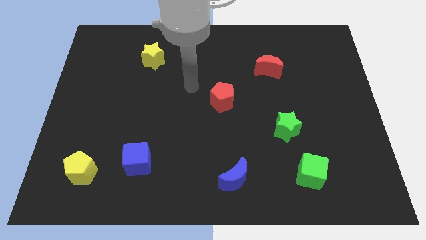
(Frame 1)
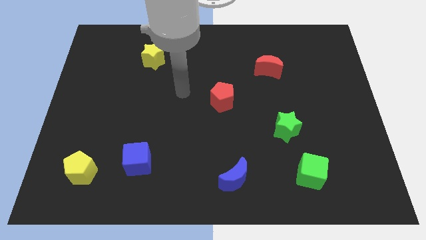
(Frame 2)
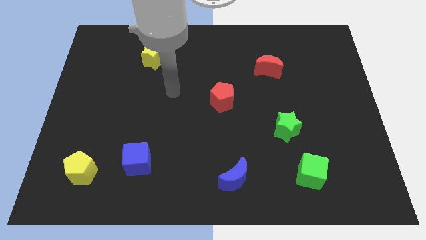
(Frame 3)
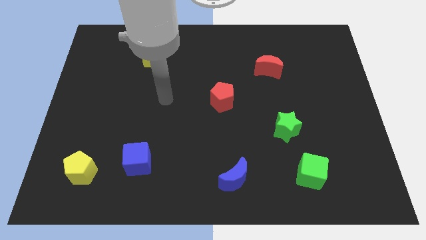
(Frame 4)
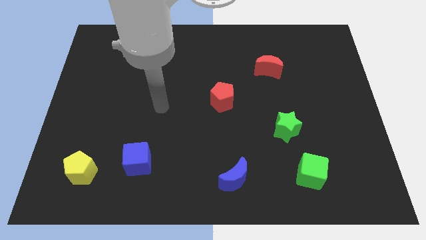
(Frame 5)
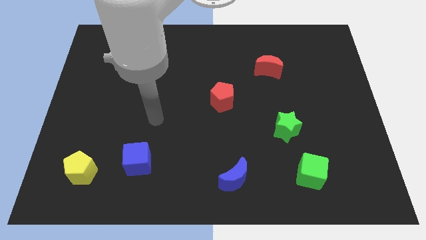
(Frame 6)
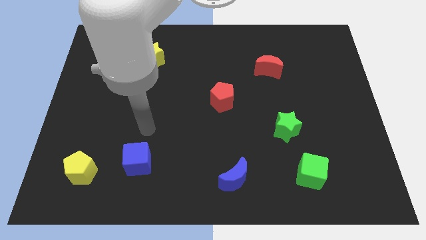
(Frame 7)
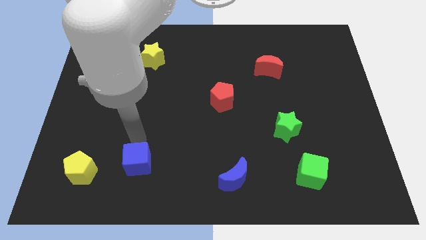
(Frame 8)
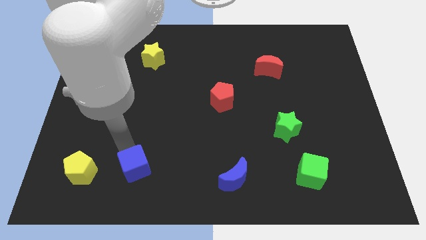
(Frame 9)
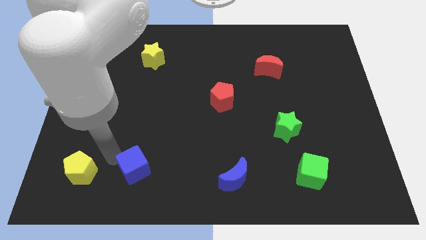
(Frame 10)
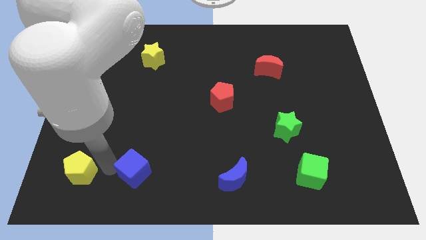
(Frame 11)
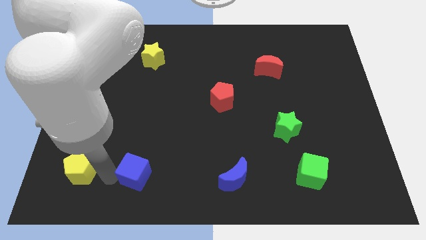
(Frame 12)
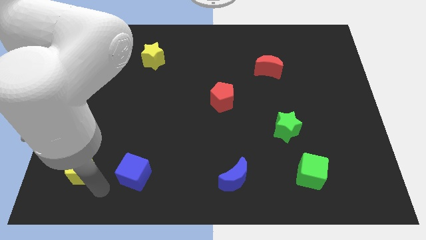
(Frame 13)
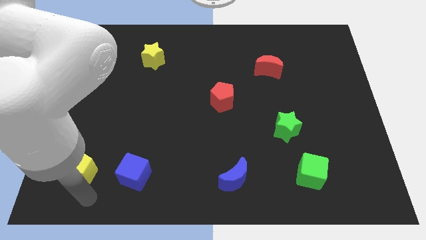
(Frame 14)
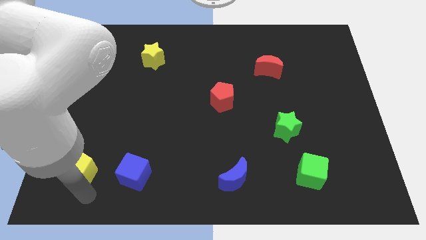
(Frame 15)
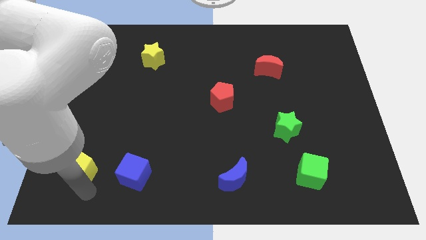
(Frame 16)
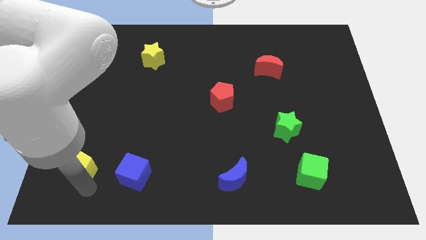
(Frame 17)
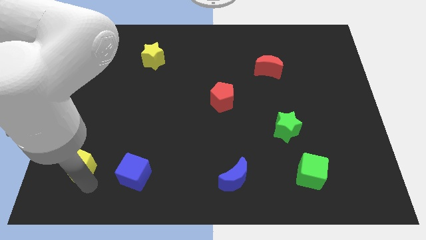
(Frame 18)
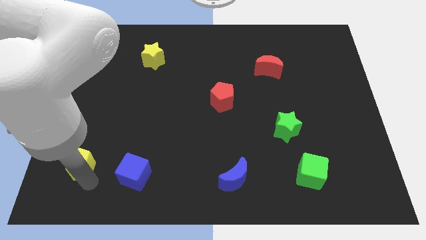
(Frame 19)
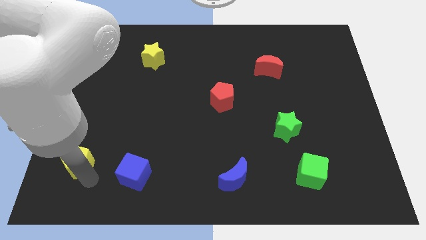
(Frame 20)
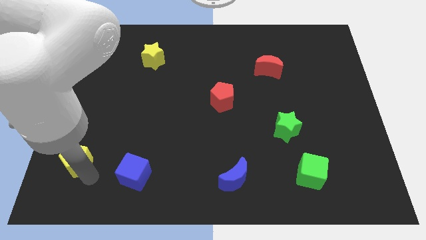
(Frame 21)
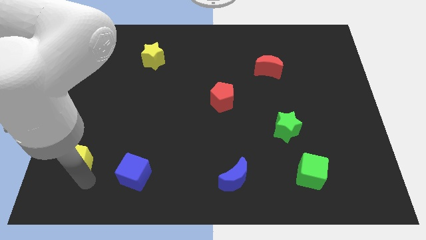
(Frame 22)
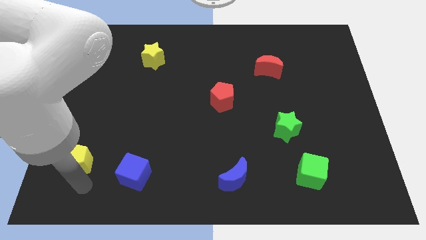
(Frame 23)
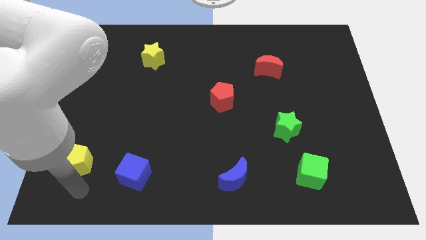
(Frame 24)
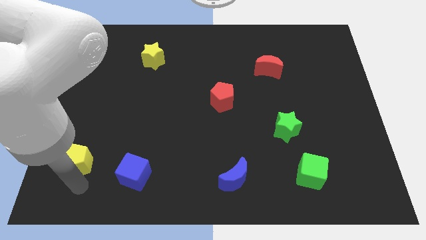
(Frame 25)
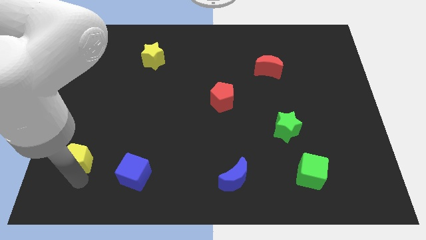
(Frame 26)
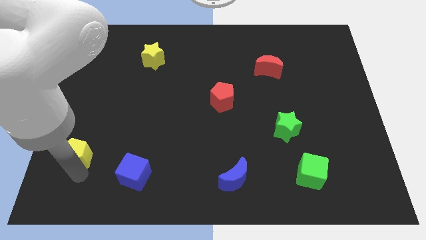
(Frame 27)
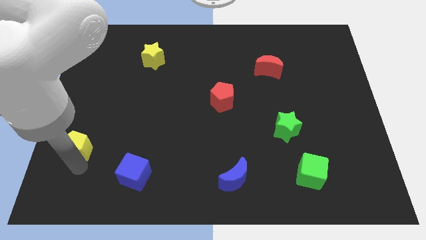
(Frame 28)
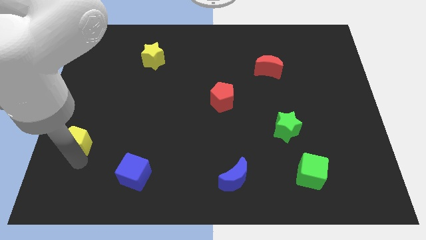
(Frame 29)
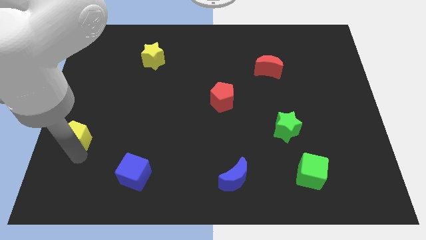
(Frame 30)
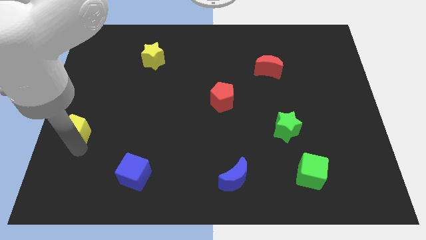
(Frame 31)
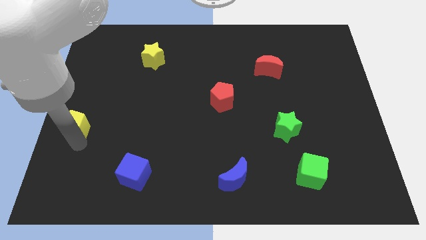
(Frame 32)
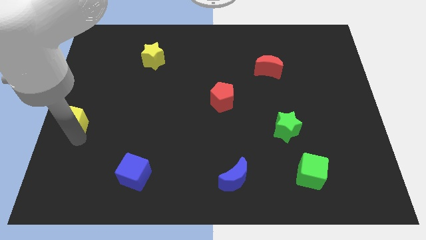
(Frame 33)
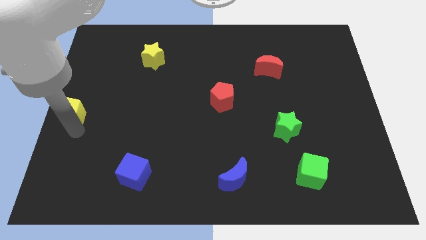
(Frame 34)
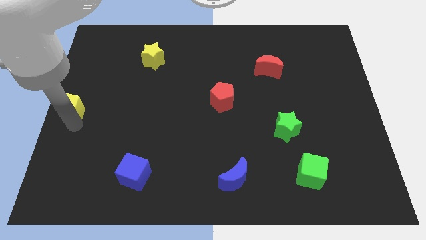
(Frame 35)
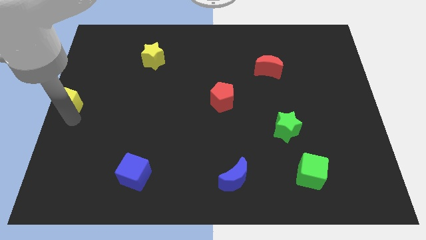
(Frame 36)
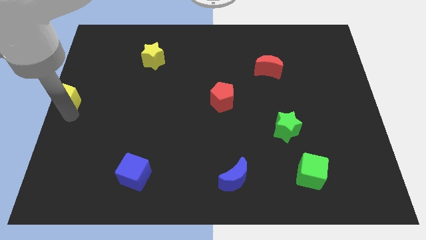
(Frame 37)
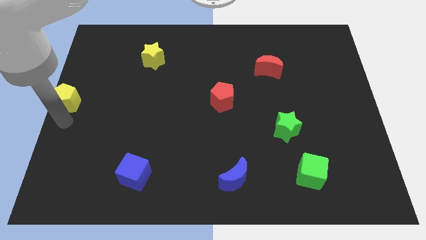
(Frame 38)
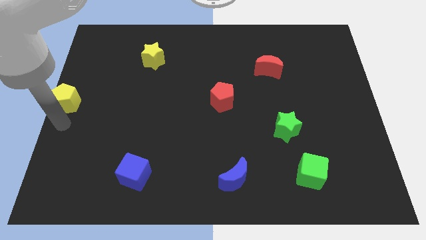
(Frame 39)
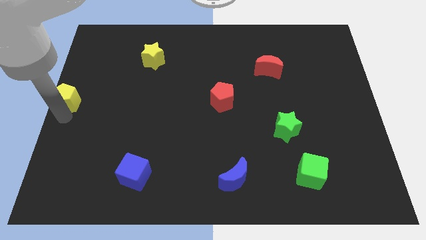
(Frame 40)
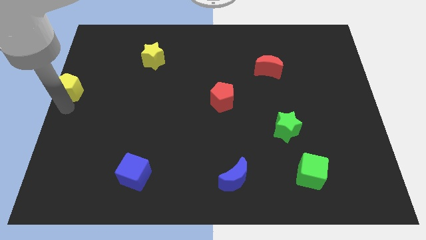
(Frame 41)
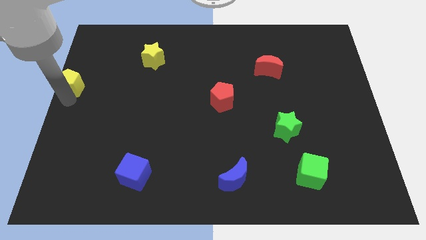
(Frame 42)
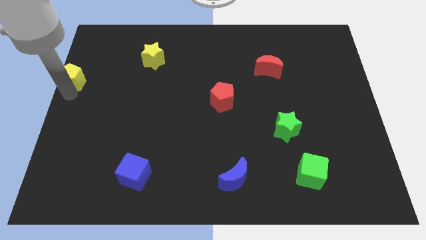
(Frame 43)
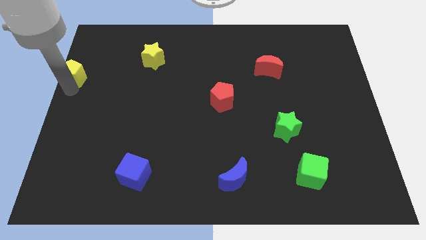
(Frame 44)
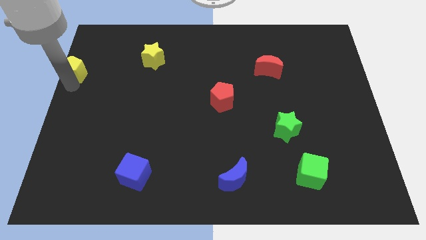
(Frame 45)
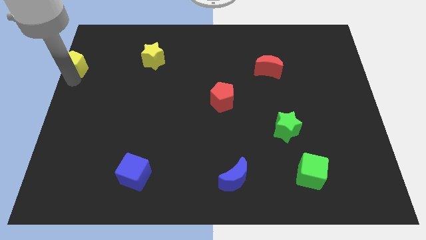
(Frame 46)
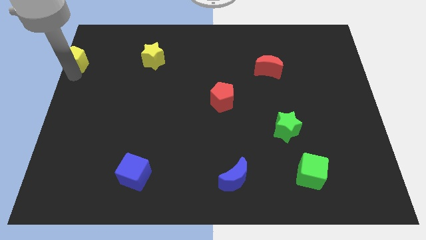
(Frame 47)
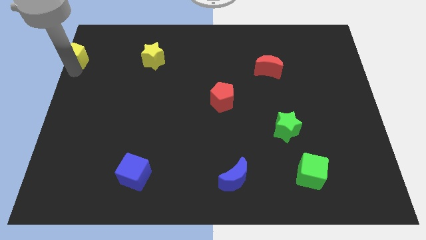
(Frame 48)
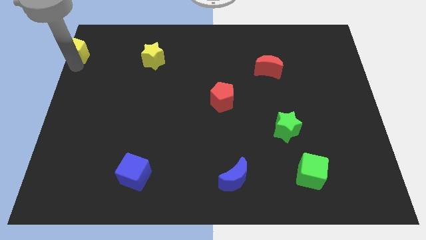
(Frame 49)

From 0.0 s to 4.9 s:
slide the yellow pentagon to the top left corner

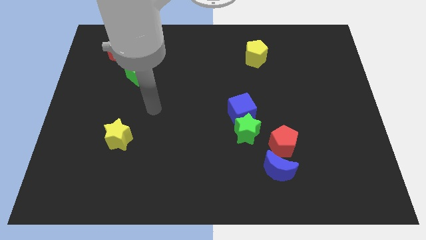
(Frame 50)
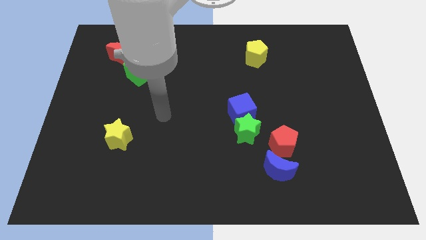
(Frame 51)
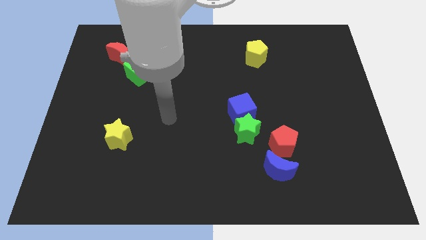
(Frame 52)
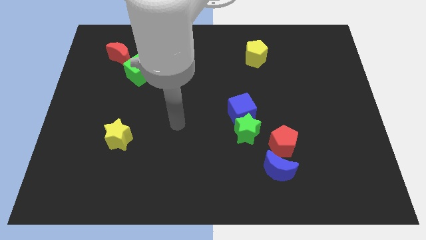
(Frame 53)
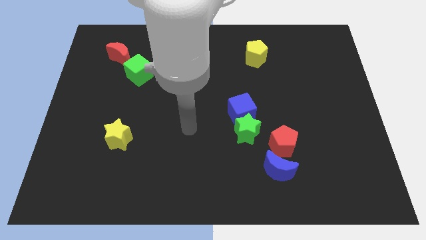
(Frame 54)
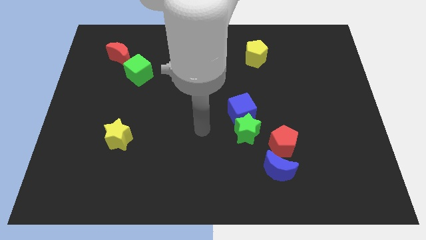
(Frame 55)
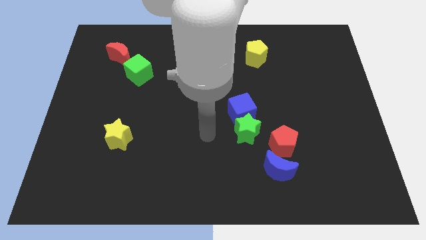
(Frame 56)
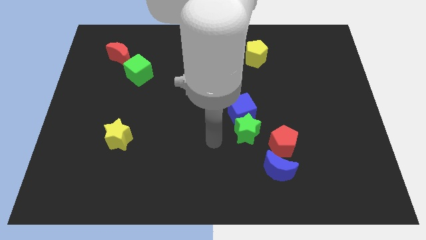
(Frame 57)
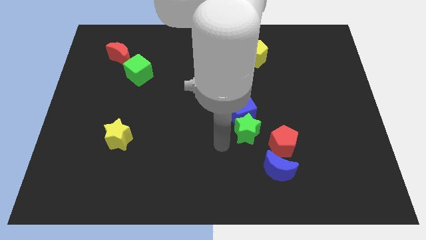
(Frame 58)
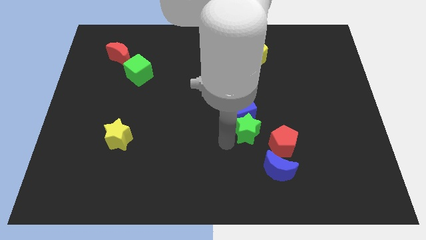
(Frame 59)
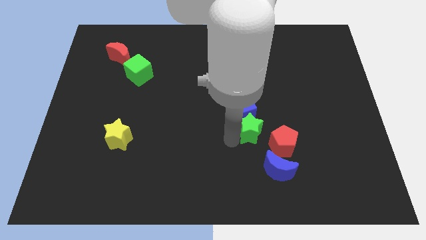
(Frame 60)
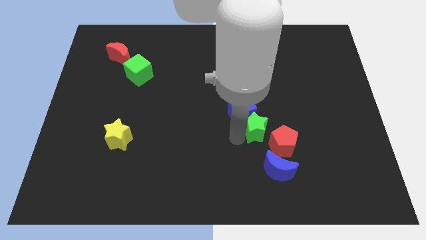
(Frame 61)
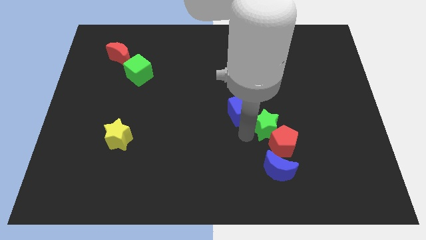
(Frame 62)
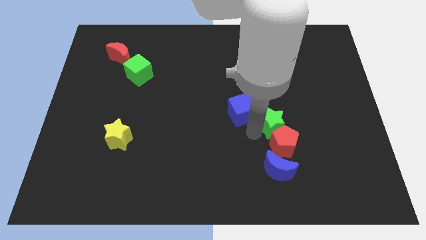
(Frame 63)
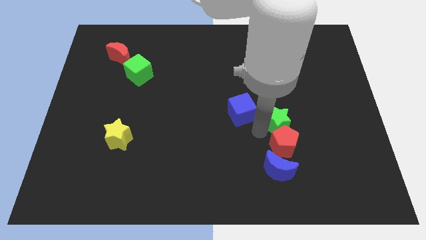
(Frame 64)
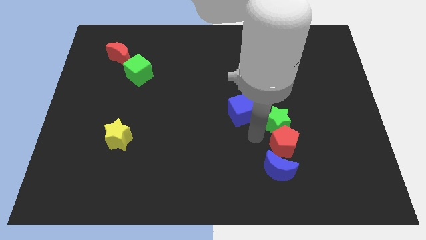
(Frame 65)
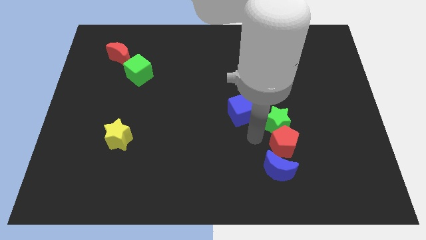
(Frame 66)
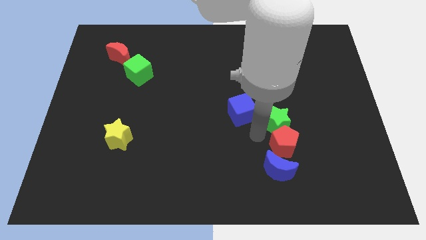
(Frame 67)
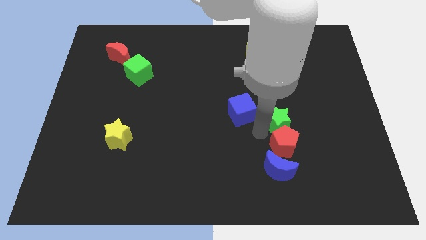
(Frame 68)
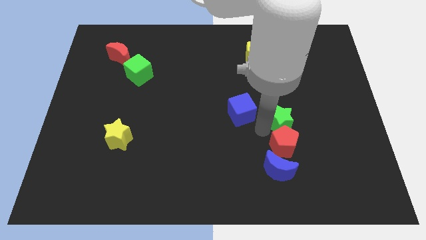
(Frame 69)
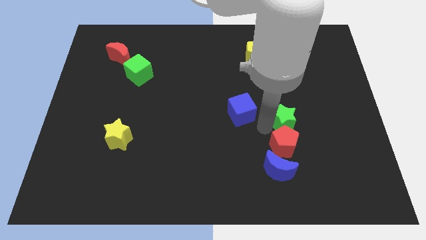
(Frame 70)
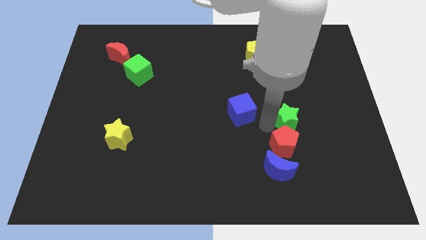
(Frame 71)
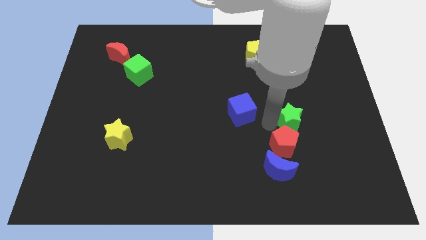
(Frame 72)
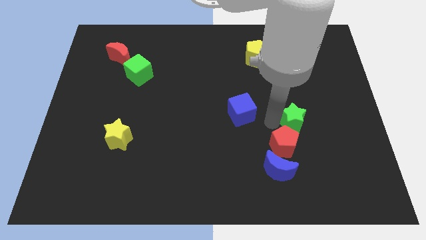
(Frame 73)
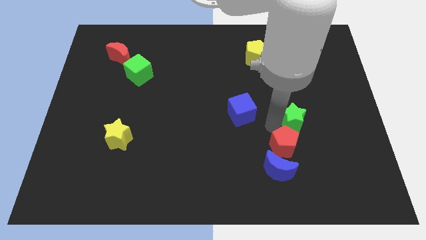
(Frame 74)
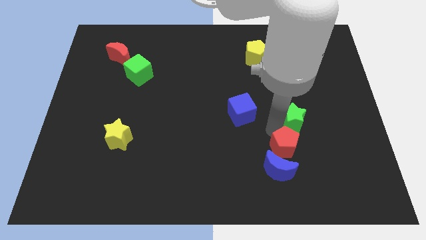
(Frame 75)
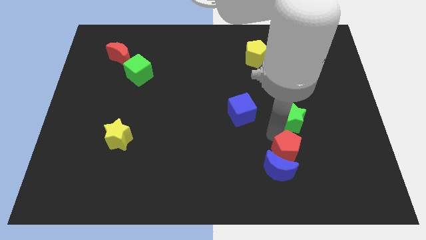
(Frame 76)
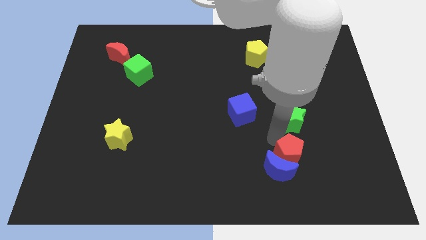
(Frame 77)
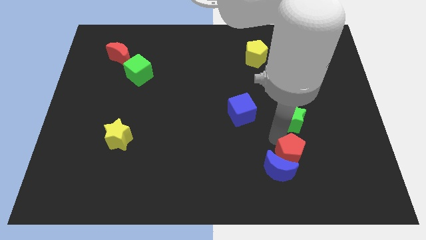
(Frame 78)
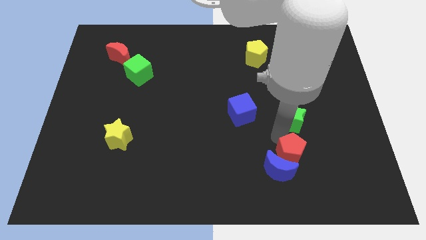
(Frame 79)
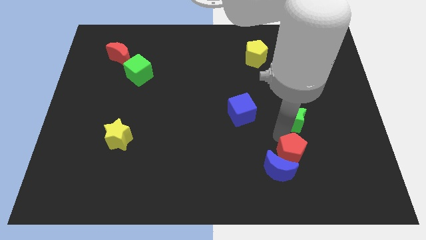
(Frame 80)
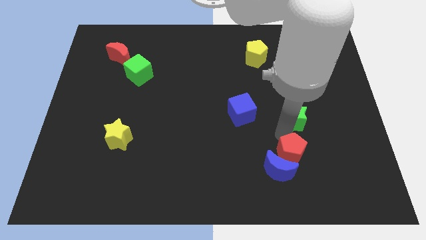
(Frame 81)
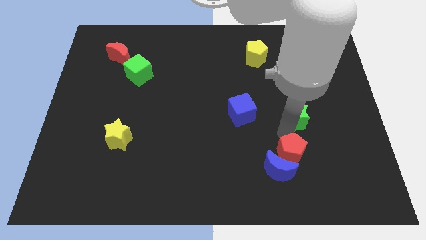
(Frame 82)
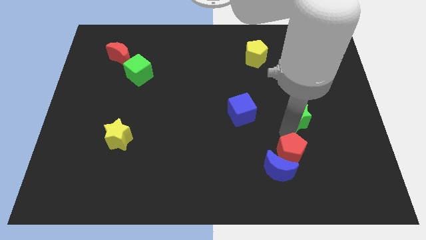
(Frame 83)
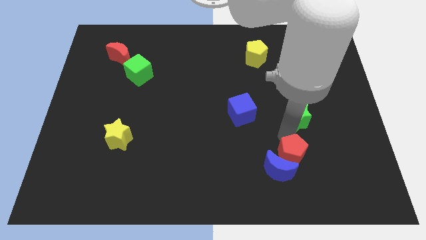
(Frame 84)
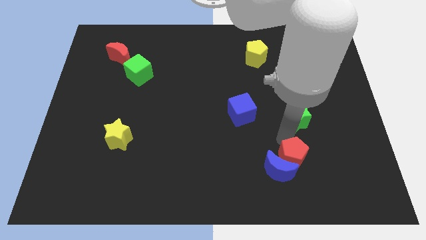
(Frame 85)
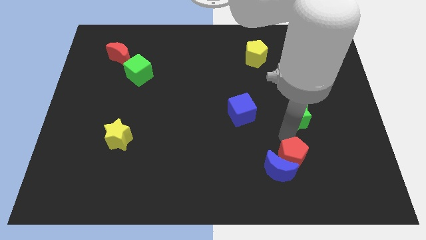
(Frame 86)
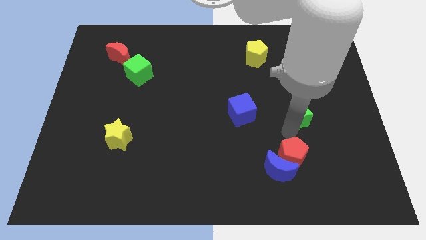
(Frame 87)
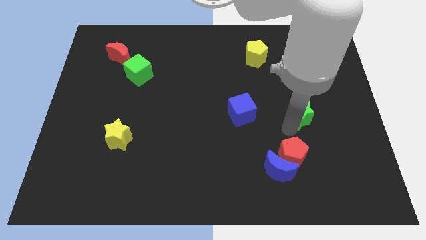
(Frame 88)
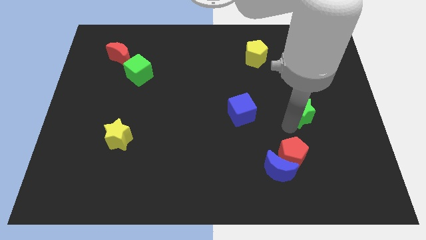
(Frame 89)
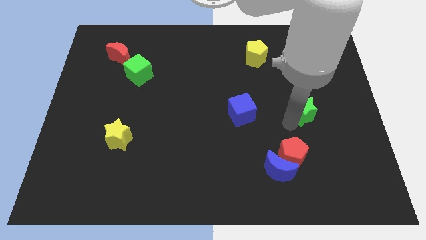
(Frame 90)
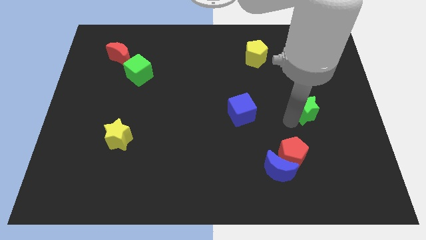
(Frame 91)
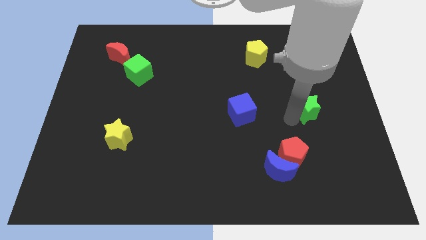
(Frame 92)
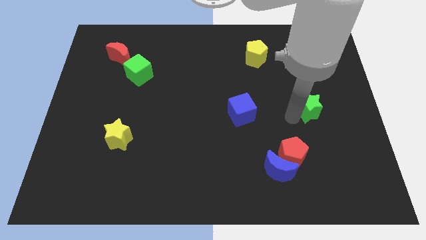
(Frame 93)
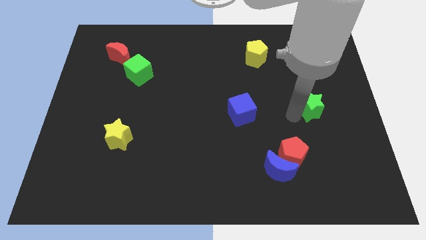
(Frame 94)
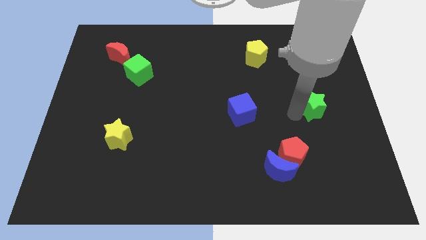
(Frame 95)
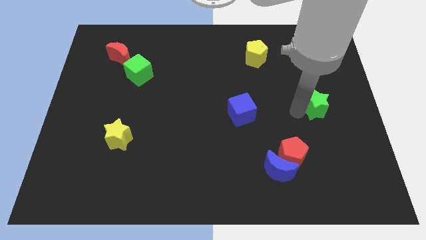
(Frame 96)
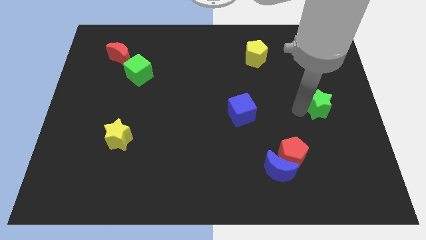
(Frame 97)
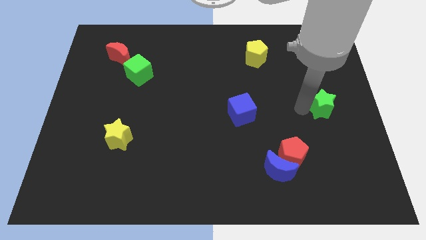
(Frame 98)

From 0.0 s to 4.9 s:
move the green star to the center right
